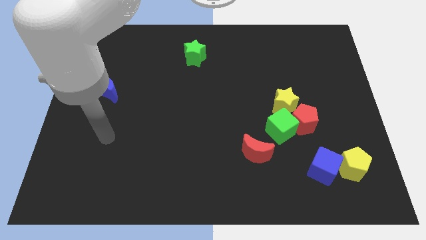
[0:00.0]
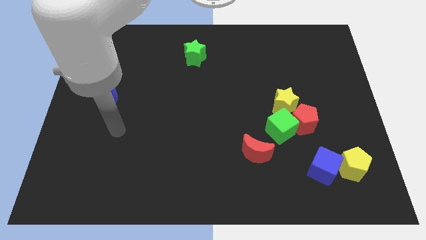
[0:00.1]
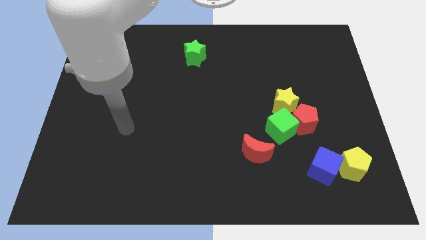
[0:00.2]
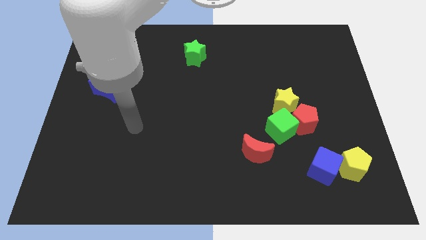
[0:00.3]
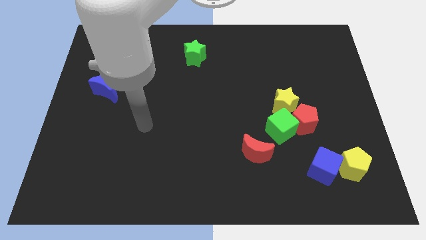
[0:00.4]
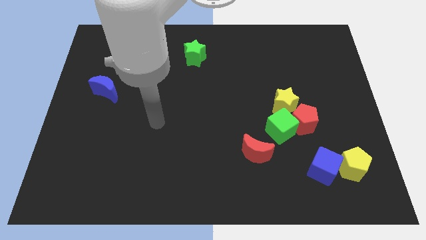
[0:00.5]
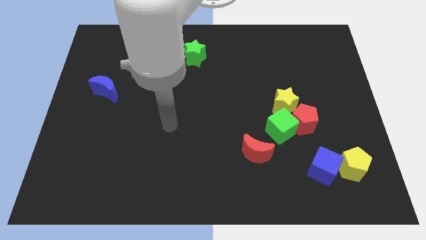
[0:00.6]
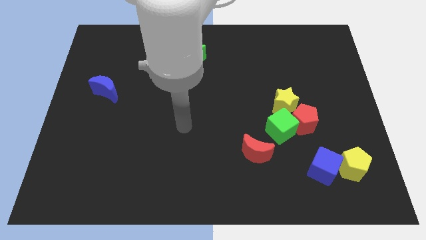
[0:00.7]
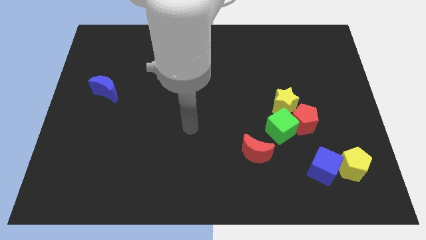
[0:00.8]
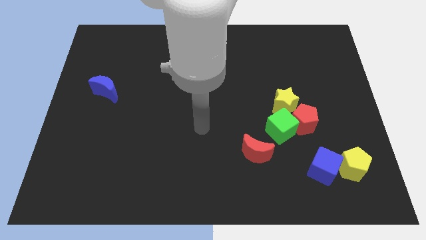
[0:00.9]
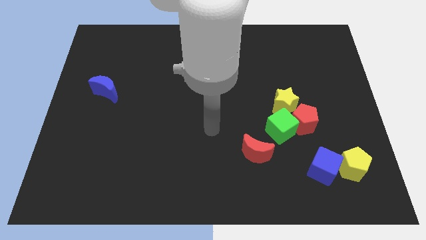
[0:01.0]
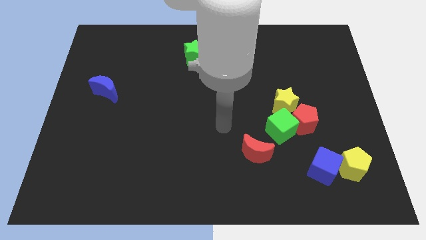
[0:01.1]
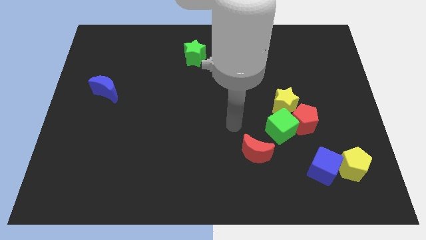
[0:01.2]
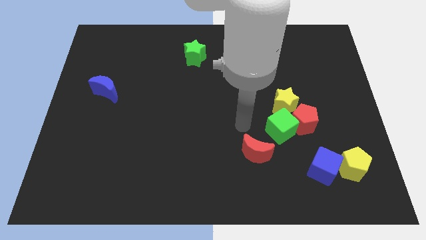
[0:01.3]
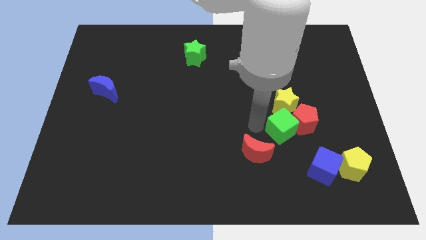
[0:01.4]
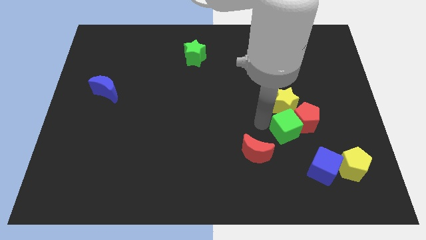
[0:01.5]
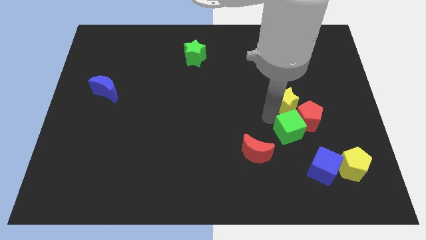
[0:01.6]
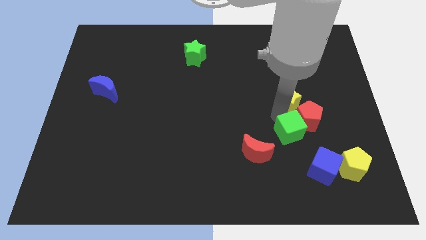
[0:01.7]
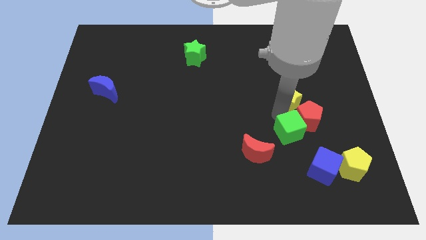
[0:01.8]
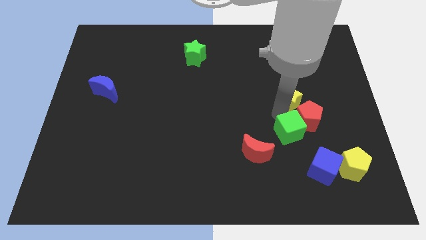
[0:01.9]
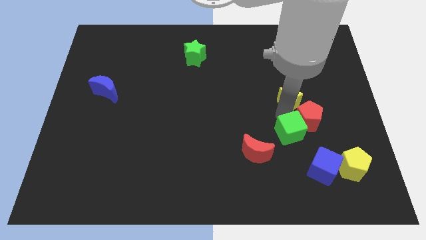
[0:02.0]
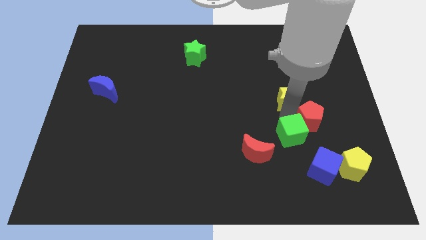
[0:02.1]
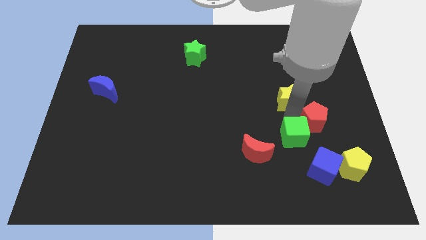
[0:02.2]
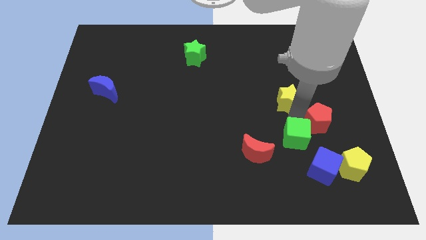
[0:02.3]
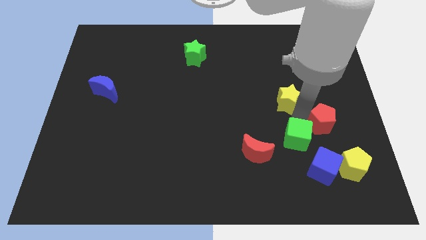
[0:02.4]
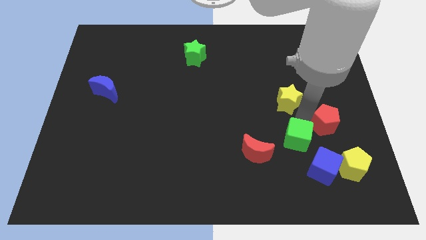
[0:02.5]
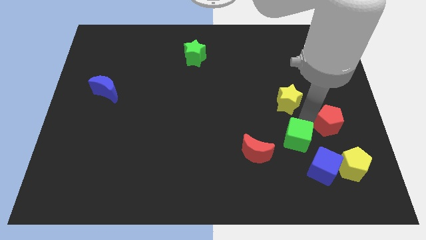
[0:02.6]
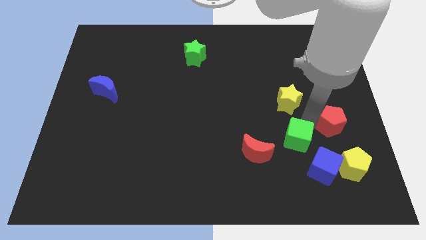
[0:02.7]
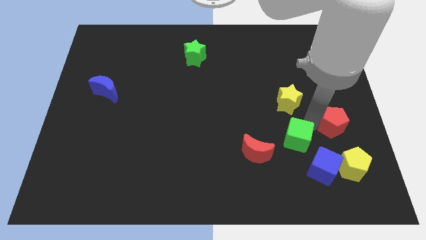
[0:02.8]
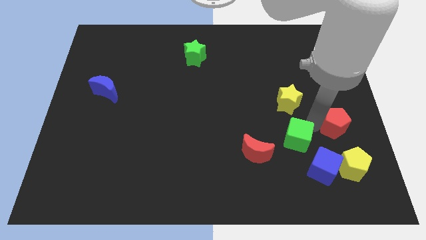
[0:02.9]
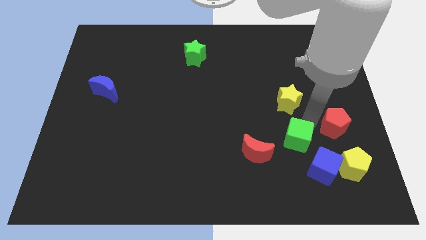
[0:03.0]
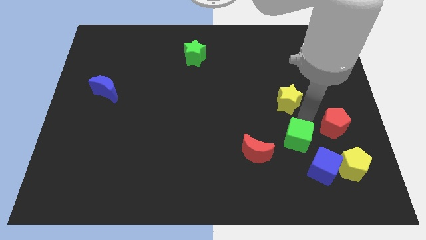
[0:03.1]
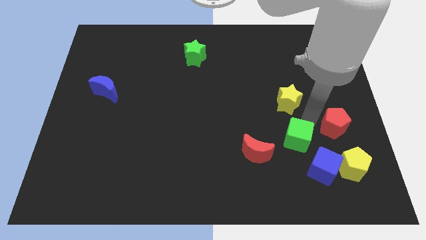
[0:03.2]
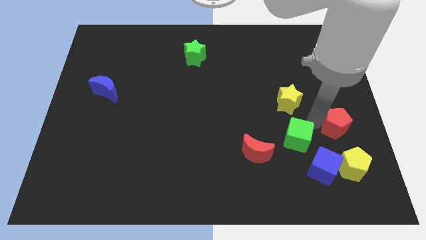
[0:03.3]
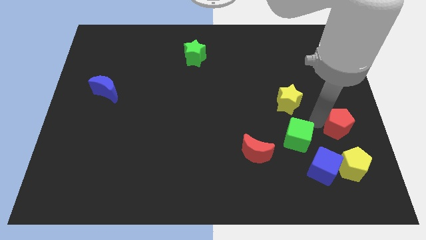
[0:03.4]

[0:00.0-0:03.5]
move the red pentagon away from the green cube and yellow star

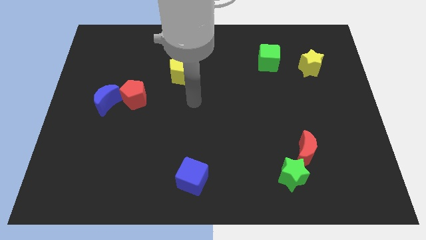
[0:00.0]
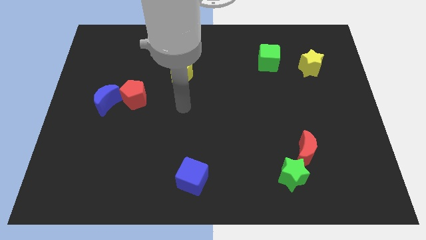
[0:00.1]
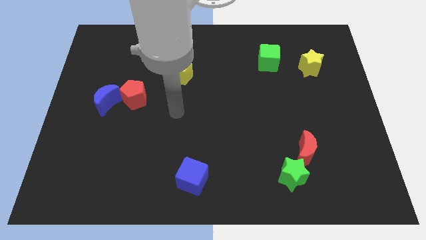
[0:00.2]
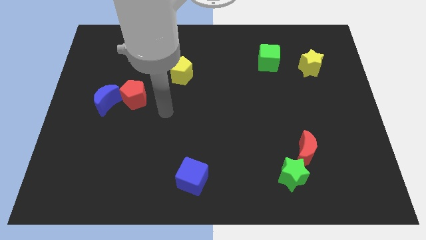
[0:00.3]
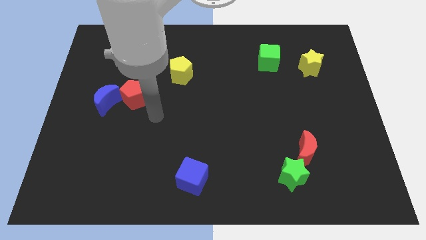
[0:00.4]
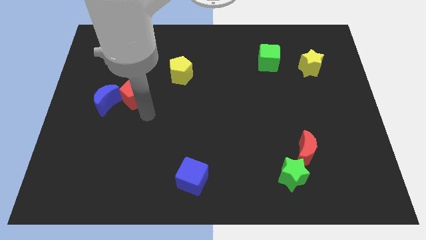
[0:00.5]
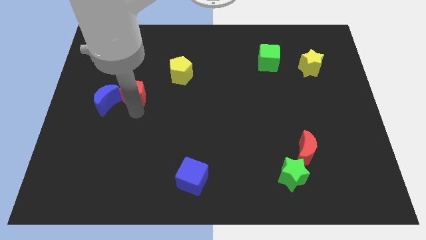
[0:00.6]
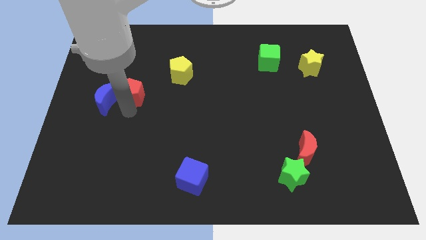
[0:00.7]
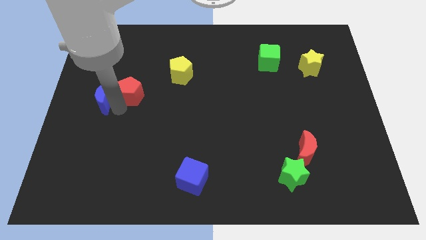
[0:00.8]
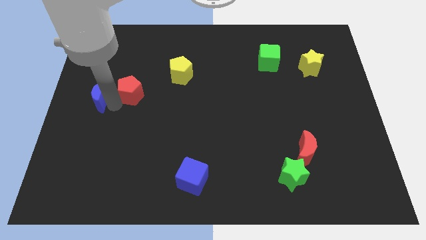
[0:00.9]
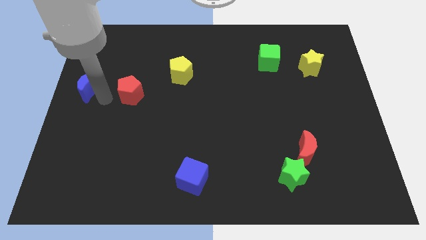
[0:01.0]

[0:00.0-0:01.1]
move the red pentagon away from the blue moon

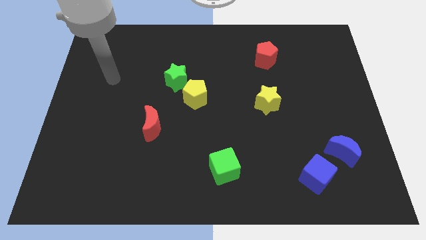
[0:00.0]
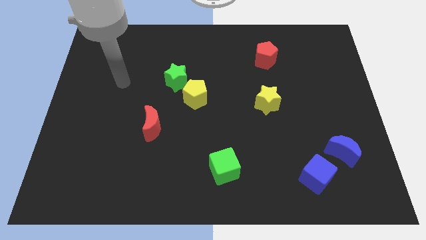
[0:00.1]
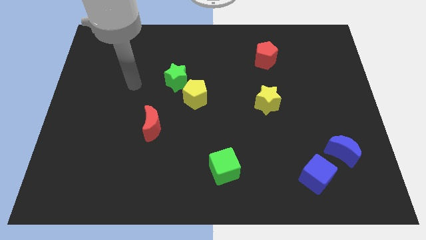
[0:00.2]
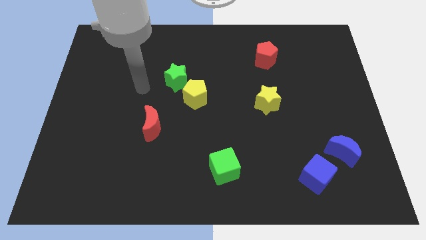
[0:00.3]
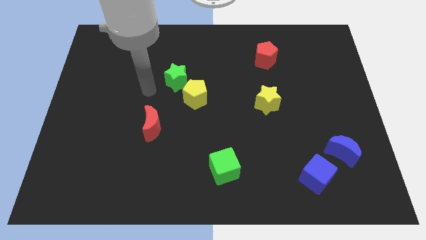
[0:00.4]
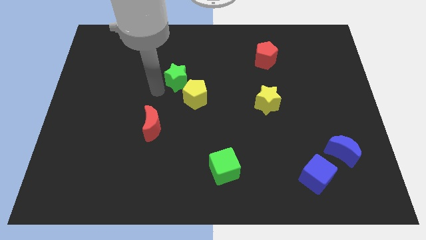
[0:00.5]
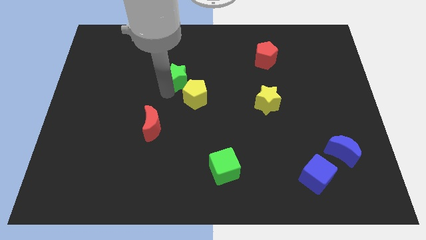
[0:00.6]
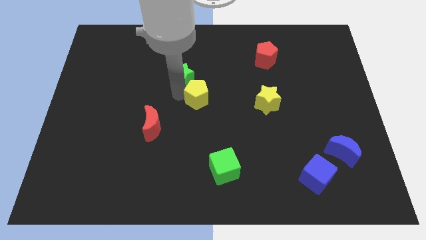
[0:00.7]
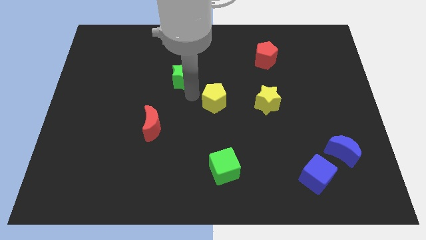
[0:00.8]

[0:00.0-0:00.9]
move the green star away from the yellow pentagon

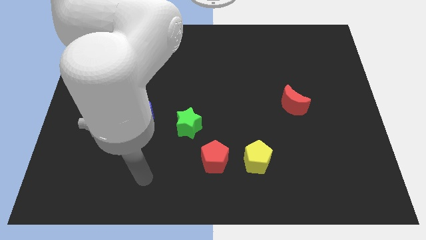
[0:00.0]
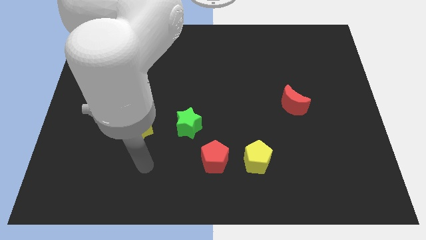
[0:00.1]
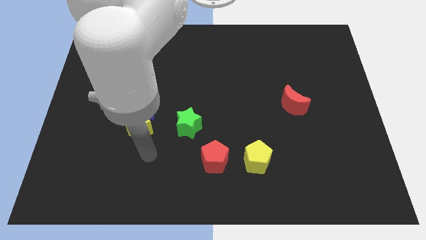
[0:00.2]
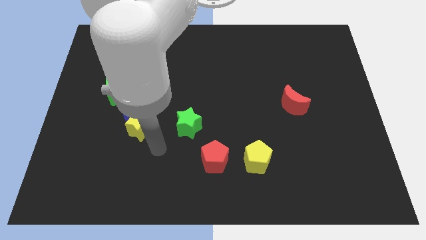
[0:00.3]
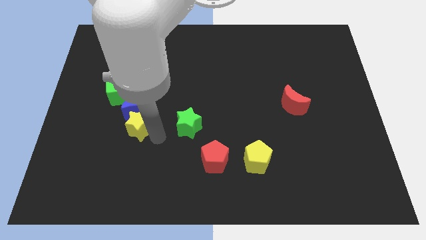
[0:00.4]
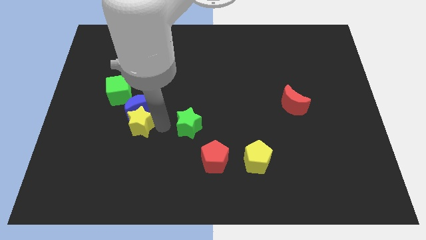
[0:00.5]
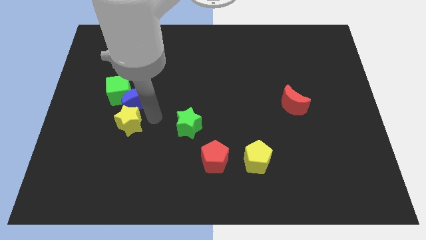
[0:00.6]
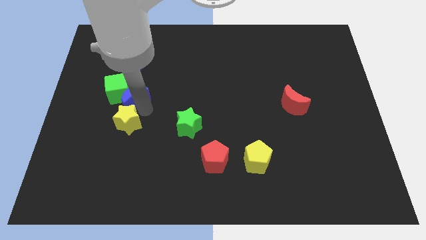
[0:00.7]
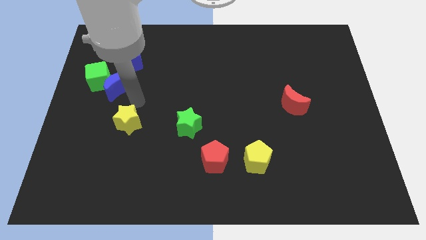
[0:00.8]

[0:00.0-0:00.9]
separate the yellow star from the blue moon

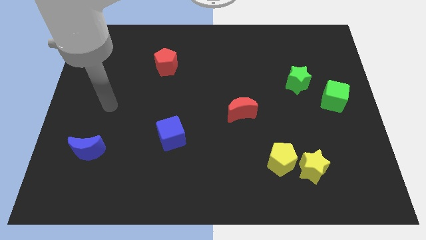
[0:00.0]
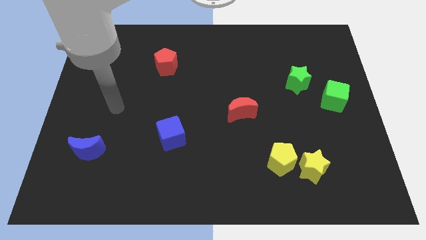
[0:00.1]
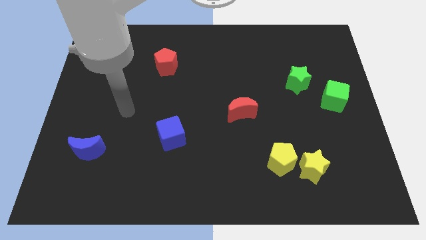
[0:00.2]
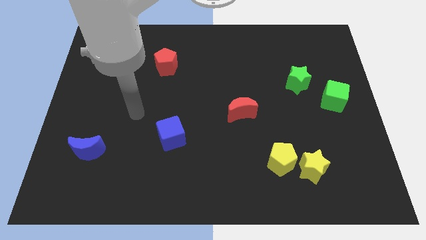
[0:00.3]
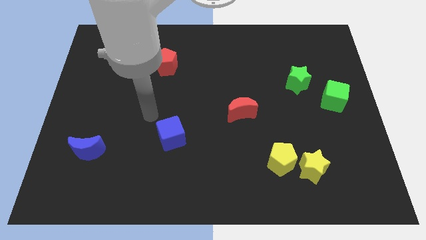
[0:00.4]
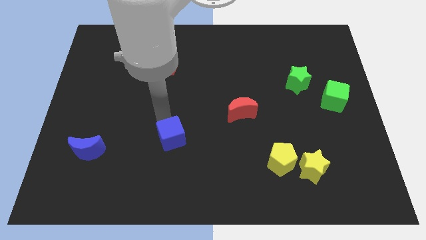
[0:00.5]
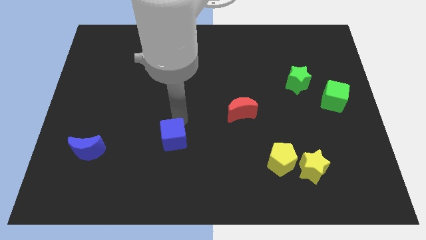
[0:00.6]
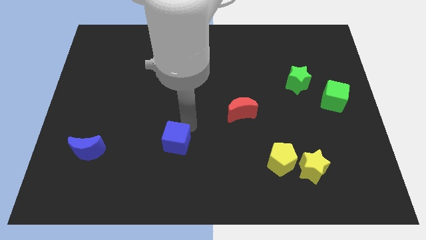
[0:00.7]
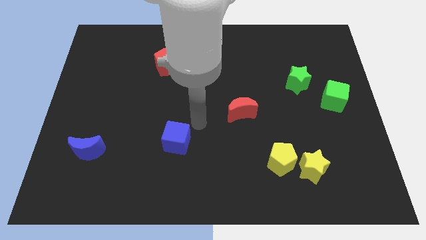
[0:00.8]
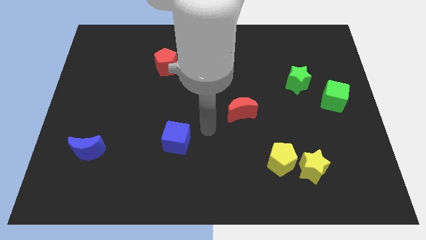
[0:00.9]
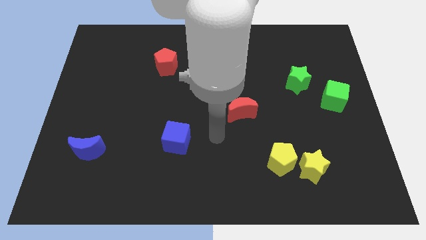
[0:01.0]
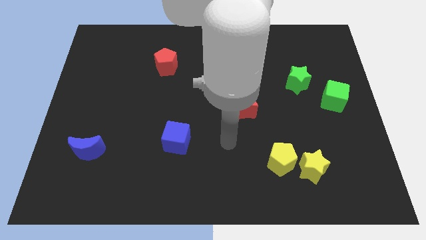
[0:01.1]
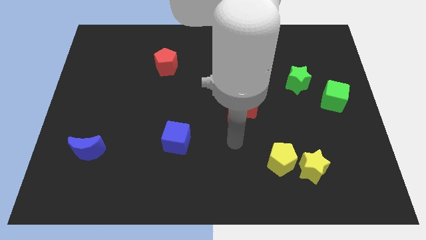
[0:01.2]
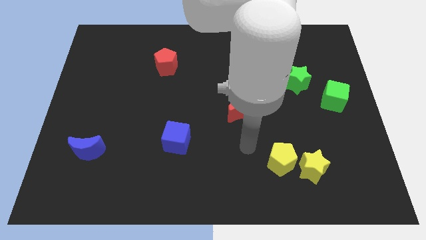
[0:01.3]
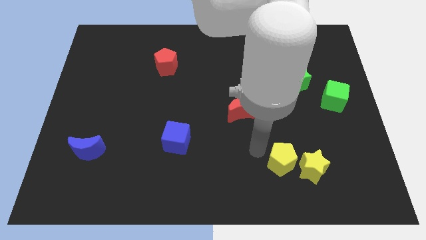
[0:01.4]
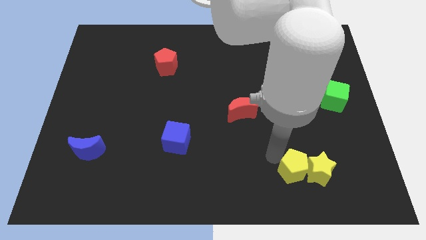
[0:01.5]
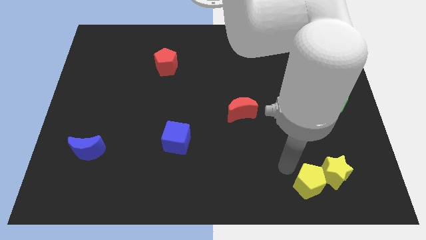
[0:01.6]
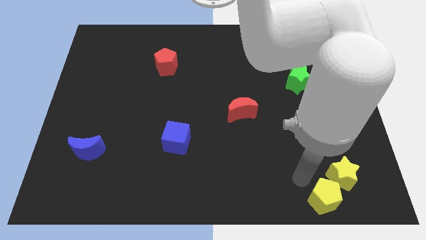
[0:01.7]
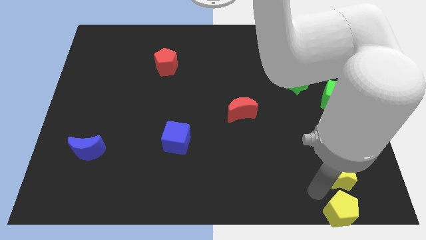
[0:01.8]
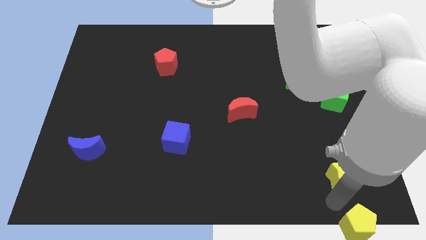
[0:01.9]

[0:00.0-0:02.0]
separate the yellow star from the yellow pentagon

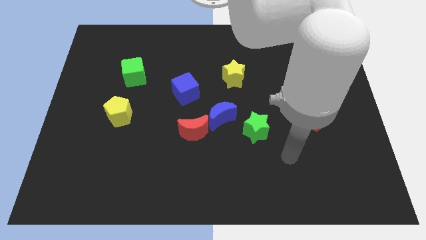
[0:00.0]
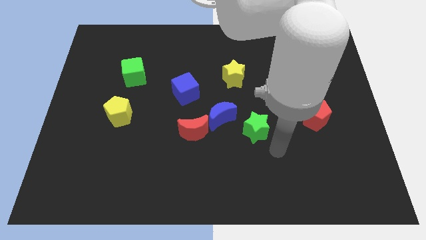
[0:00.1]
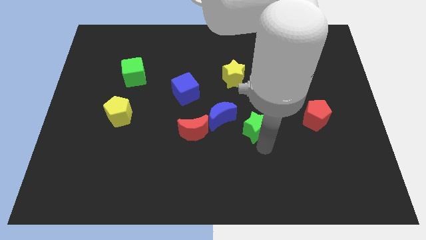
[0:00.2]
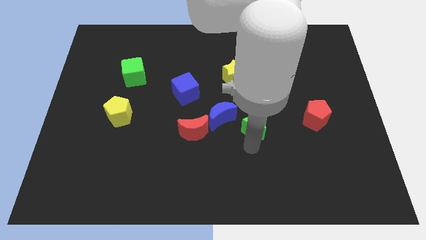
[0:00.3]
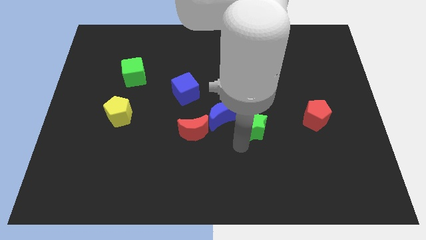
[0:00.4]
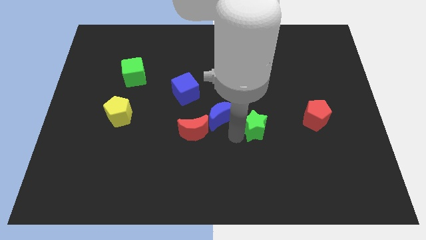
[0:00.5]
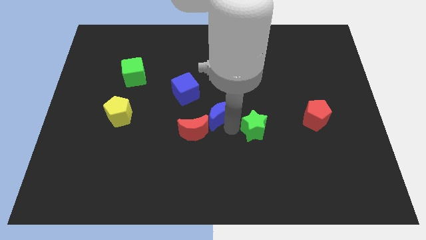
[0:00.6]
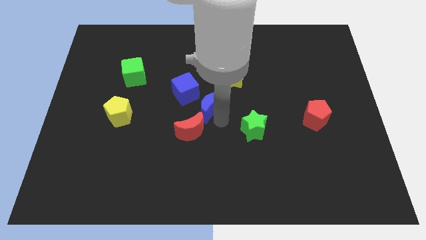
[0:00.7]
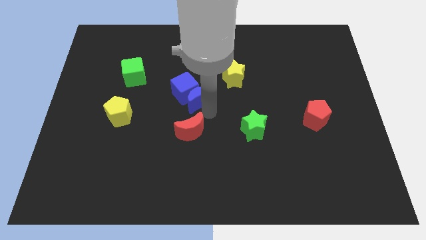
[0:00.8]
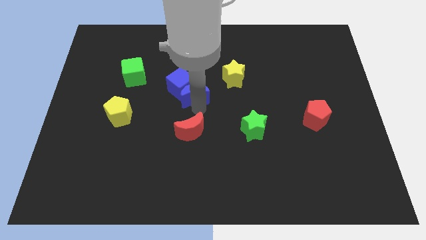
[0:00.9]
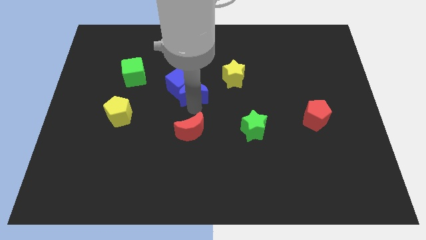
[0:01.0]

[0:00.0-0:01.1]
move the red moon away from the blue moon

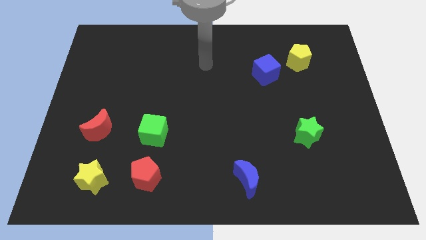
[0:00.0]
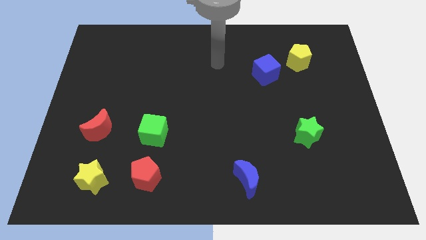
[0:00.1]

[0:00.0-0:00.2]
pull the blue cube apart from the yellow pentagon
